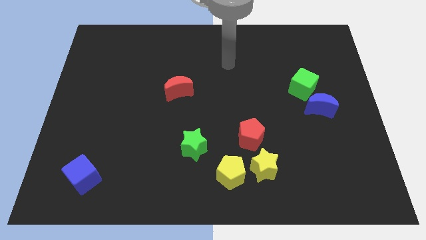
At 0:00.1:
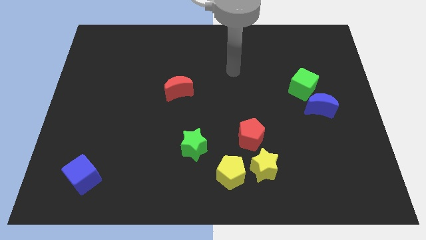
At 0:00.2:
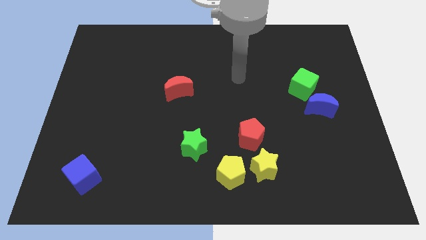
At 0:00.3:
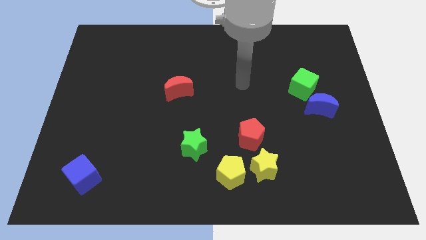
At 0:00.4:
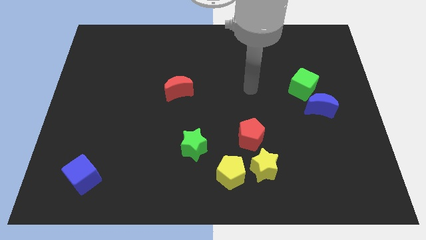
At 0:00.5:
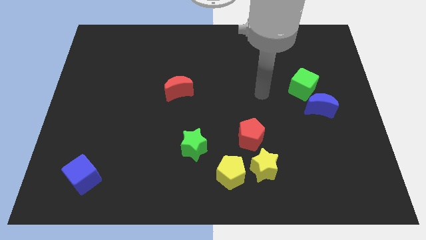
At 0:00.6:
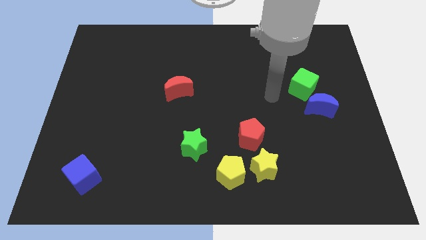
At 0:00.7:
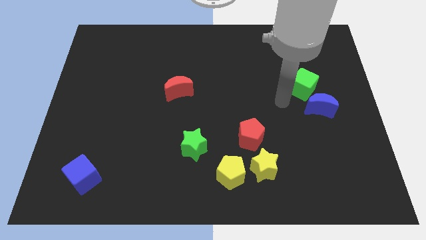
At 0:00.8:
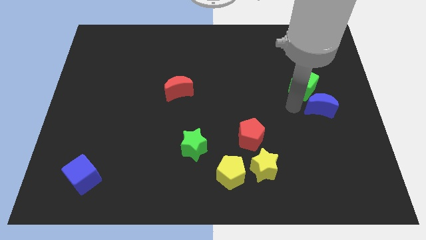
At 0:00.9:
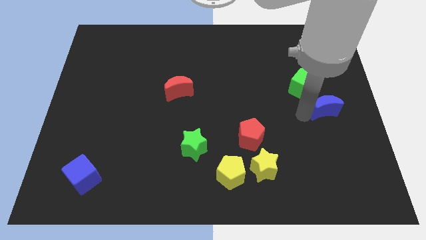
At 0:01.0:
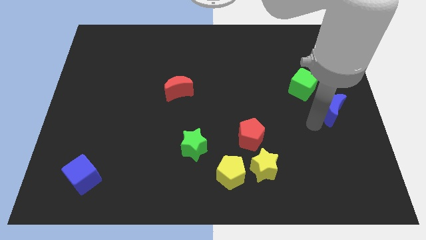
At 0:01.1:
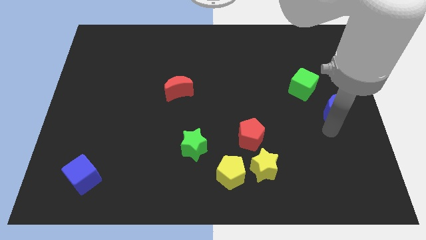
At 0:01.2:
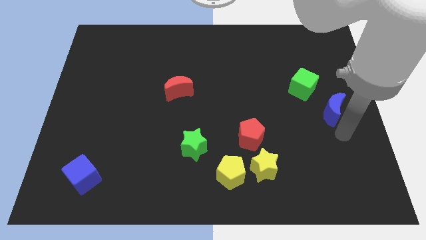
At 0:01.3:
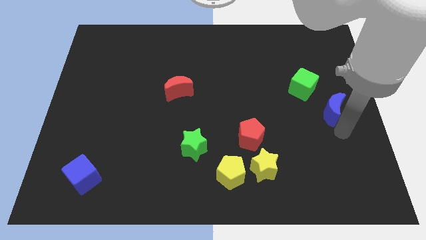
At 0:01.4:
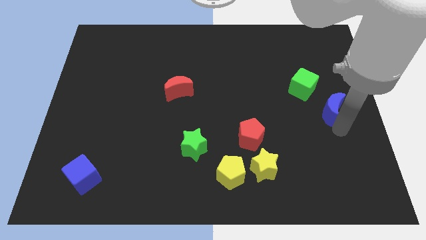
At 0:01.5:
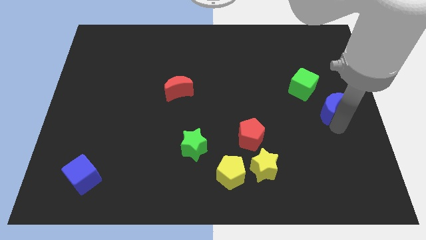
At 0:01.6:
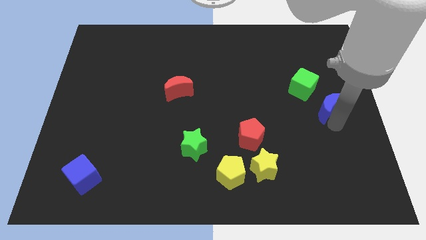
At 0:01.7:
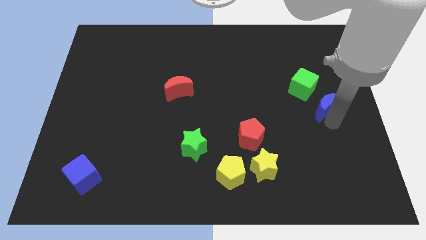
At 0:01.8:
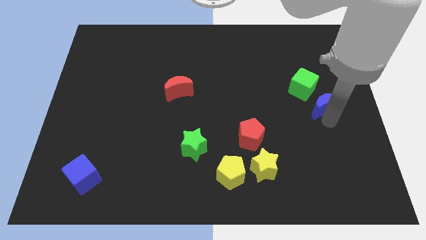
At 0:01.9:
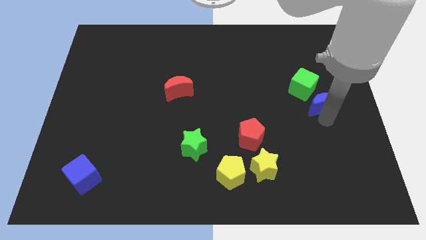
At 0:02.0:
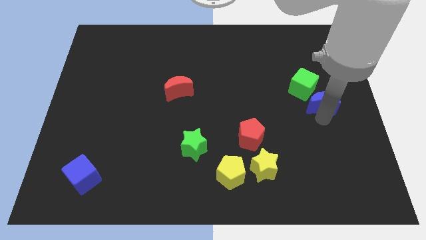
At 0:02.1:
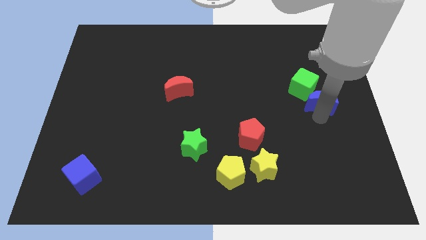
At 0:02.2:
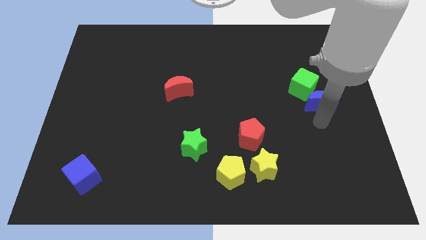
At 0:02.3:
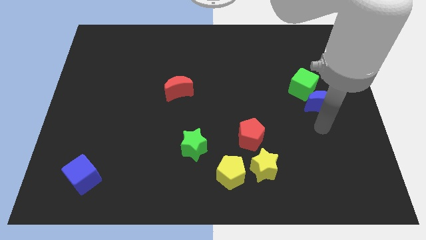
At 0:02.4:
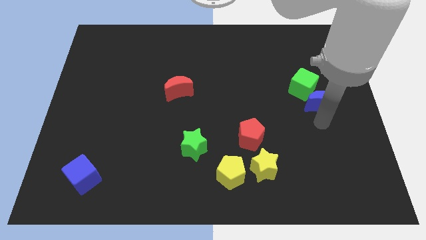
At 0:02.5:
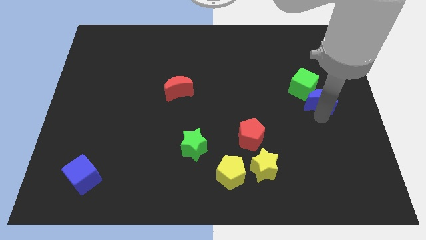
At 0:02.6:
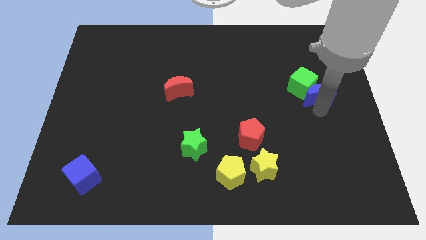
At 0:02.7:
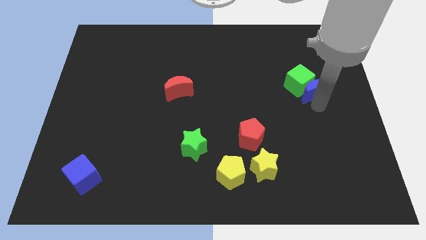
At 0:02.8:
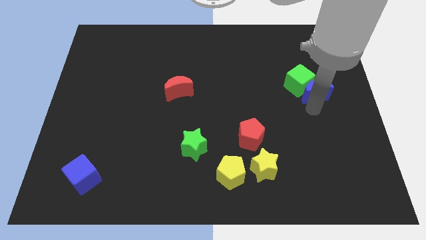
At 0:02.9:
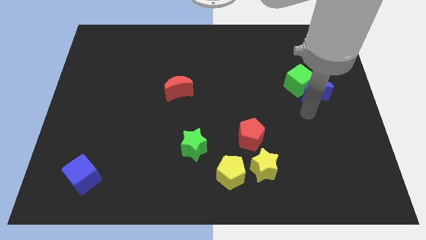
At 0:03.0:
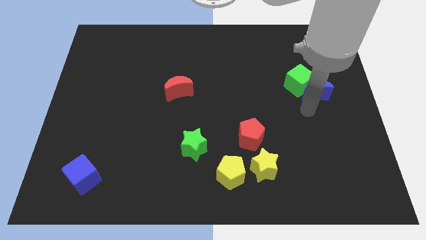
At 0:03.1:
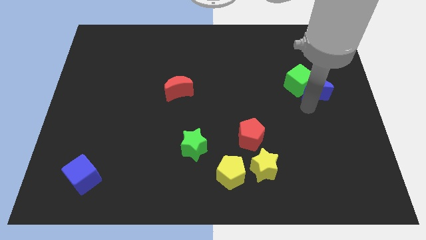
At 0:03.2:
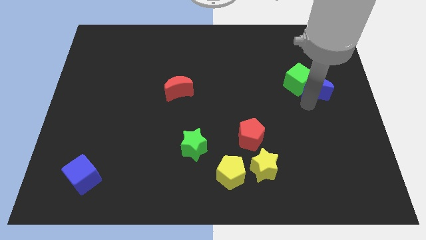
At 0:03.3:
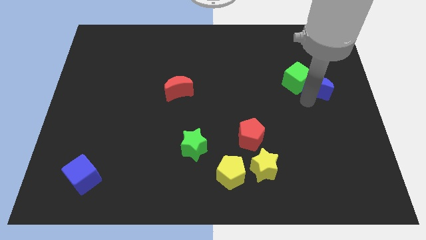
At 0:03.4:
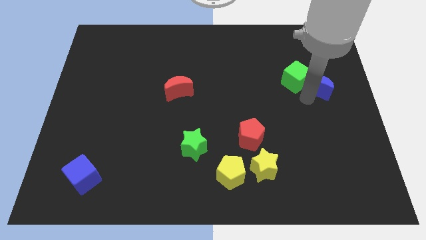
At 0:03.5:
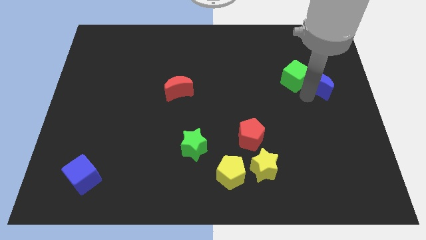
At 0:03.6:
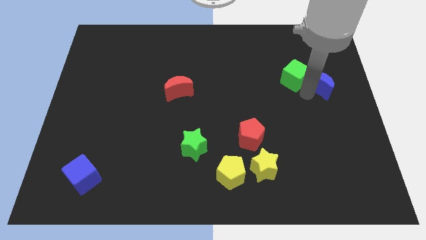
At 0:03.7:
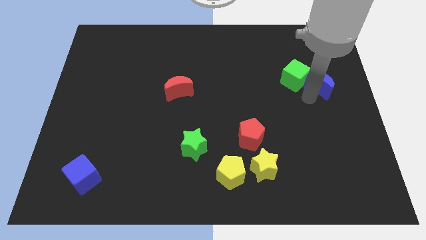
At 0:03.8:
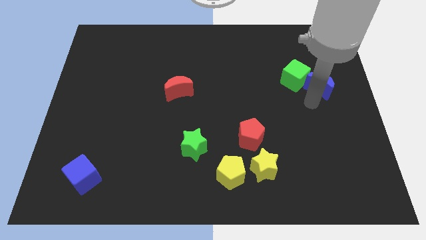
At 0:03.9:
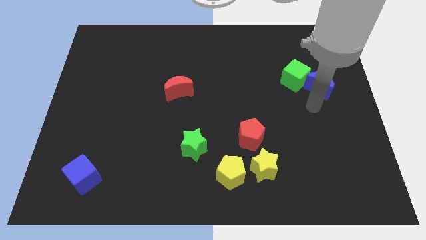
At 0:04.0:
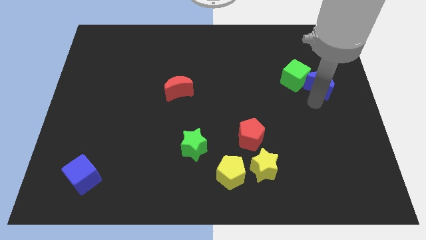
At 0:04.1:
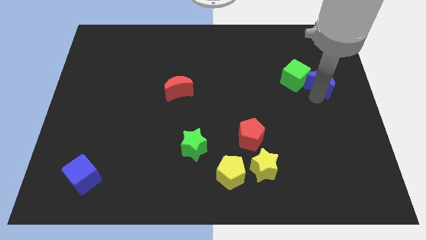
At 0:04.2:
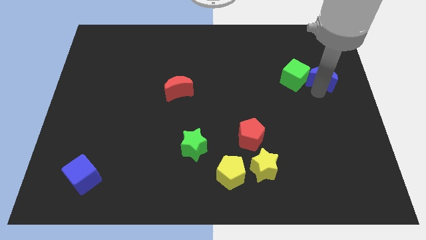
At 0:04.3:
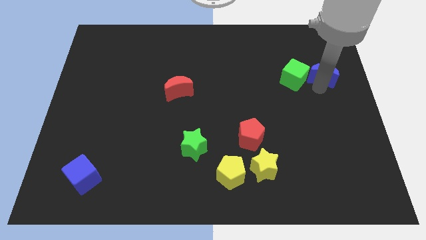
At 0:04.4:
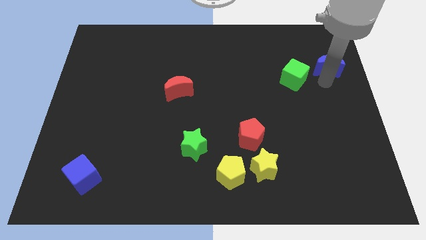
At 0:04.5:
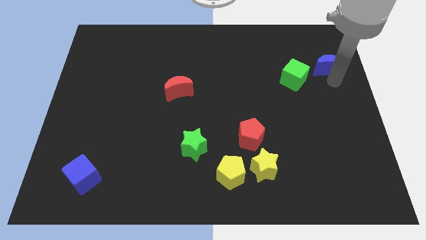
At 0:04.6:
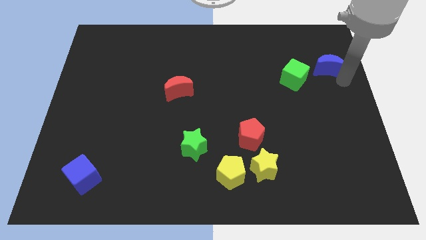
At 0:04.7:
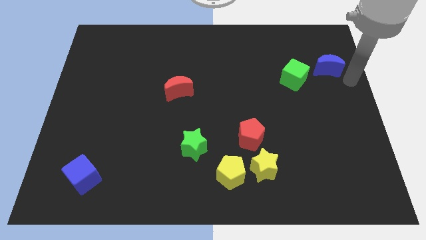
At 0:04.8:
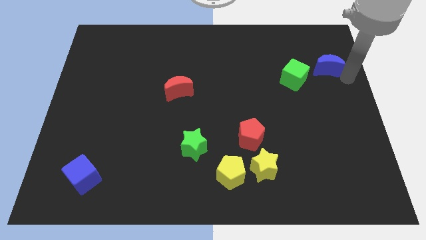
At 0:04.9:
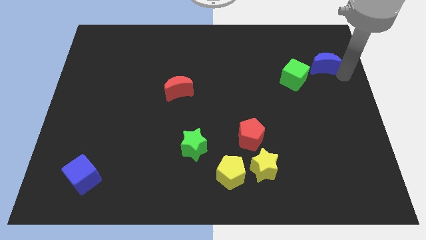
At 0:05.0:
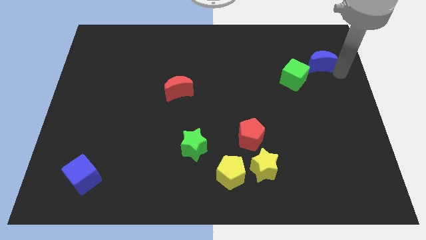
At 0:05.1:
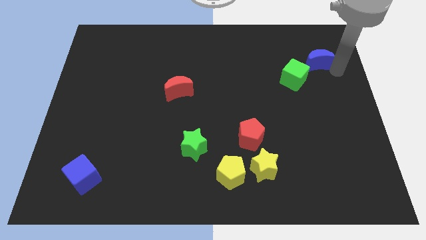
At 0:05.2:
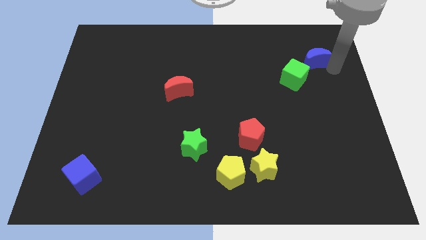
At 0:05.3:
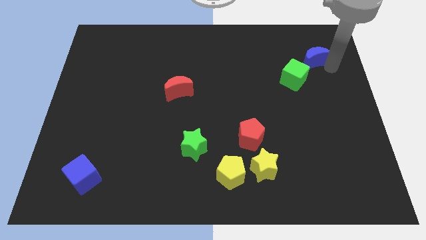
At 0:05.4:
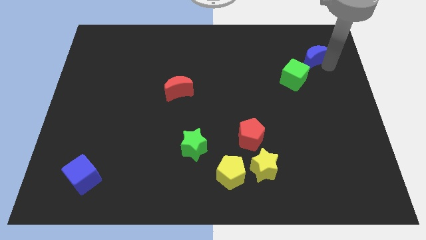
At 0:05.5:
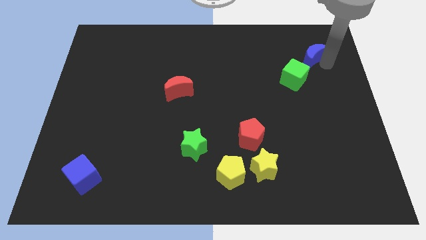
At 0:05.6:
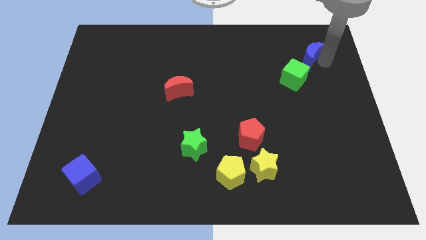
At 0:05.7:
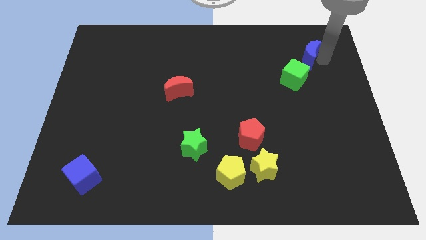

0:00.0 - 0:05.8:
push the blue moon to the top side of the green cube

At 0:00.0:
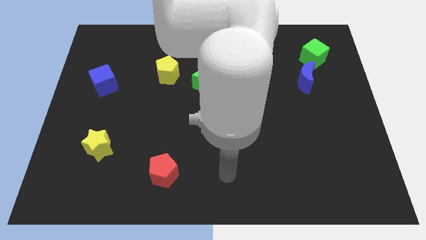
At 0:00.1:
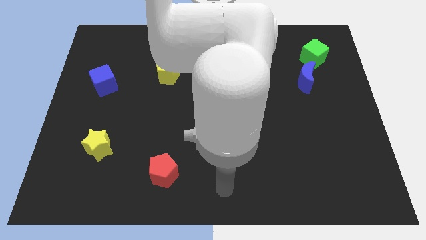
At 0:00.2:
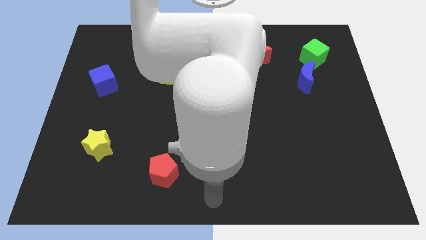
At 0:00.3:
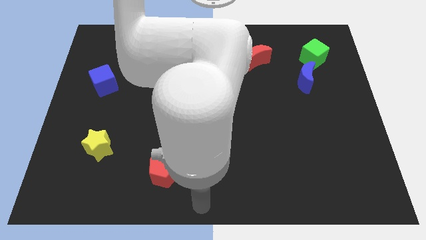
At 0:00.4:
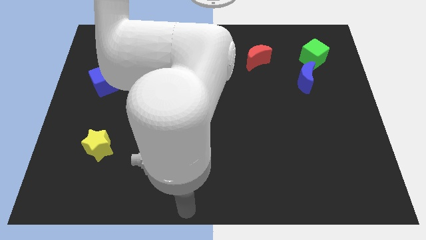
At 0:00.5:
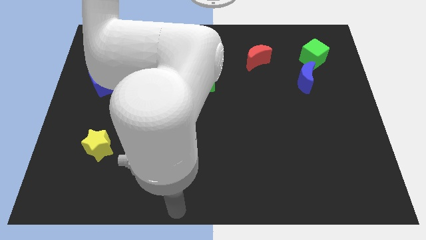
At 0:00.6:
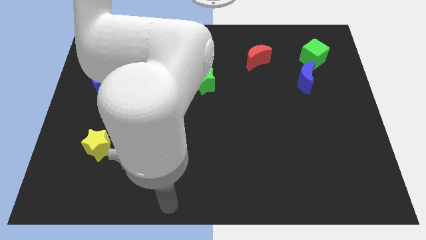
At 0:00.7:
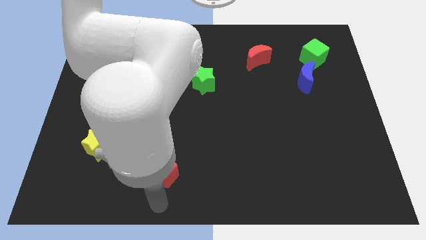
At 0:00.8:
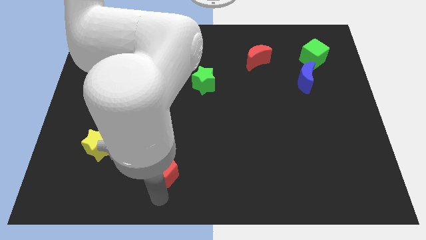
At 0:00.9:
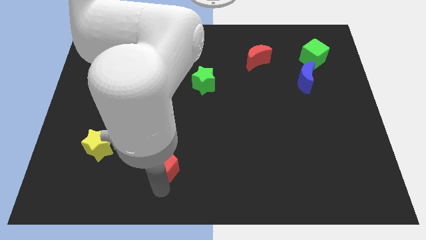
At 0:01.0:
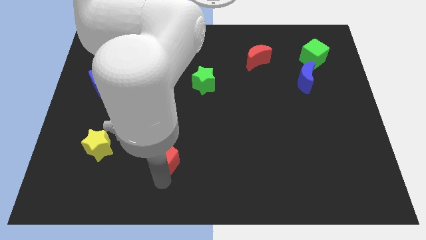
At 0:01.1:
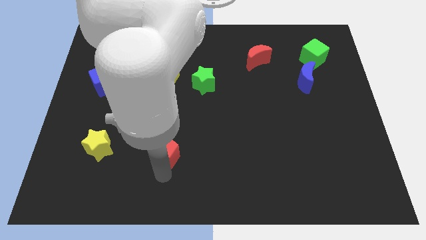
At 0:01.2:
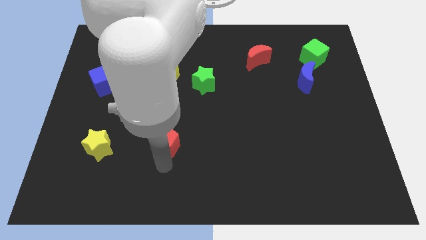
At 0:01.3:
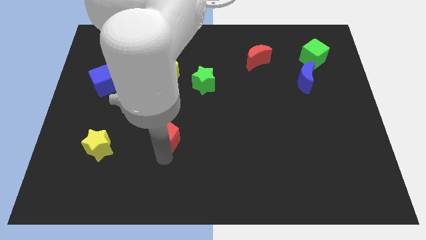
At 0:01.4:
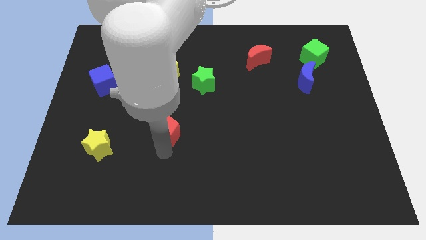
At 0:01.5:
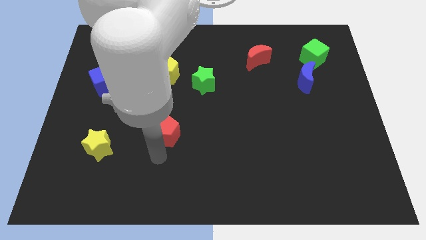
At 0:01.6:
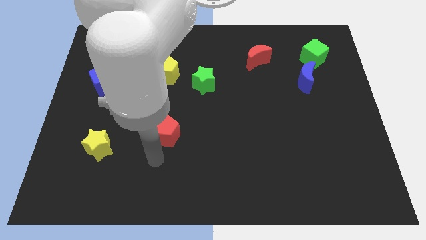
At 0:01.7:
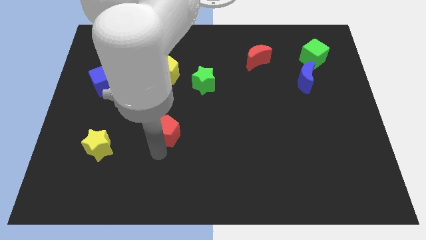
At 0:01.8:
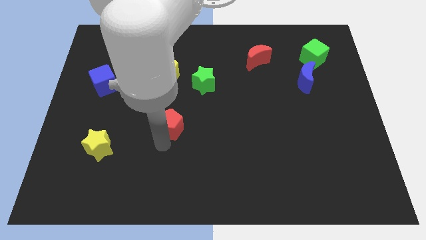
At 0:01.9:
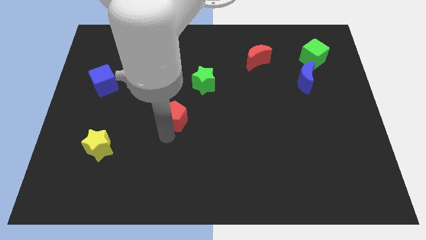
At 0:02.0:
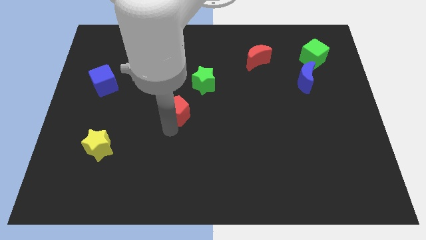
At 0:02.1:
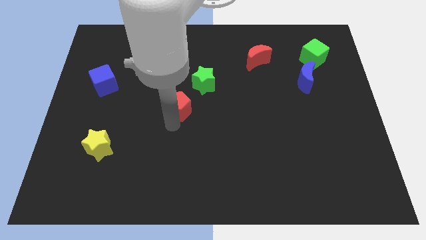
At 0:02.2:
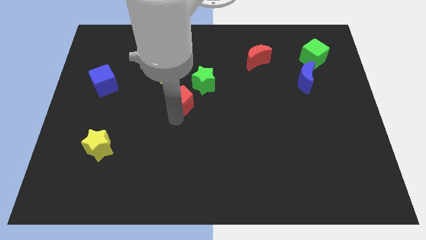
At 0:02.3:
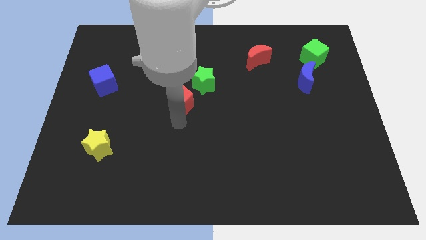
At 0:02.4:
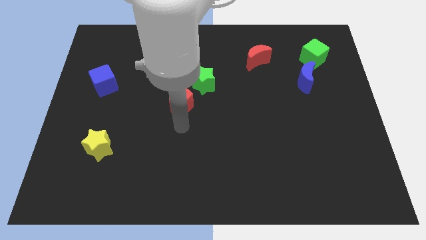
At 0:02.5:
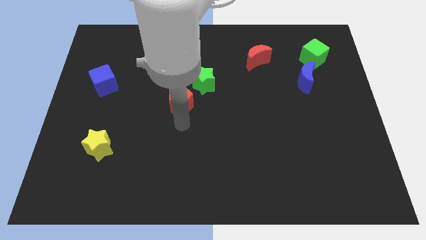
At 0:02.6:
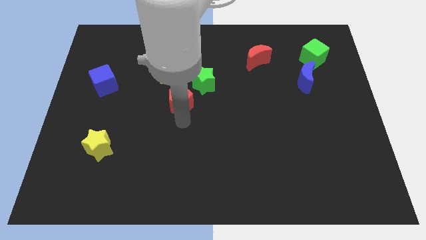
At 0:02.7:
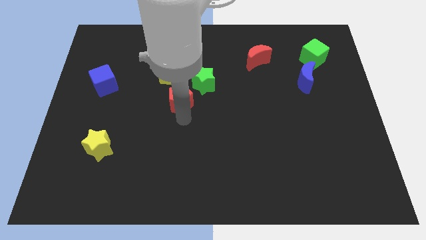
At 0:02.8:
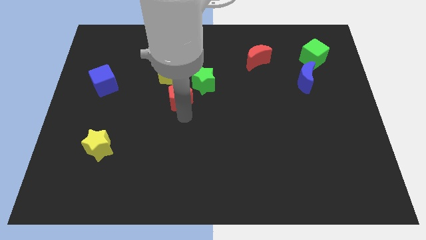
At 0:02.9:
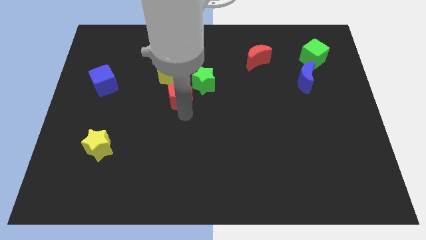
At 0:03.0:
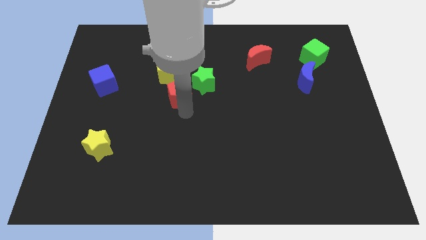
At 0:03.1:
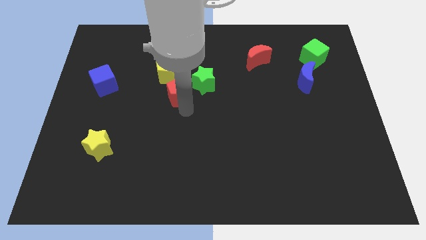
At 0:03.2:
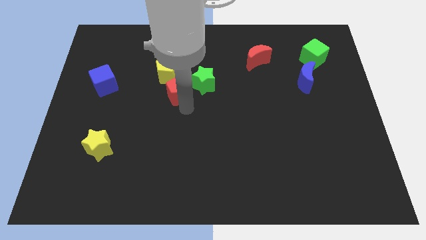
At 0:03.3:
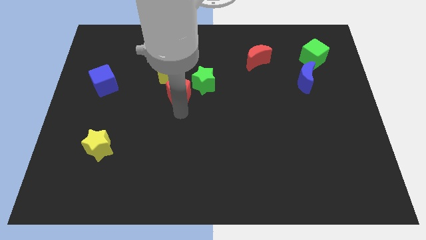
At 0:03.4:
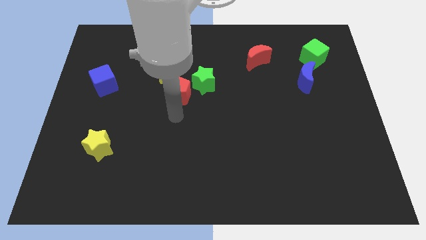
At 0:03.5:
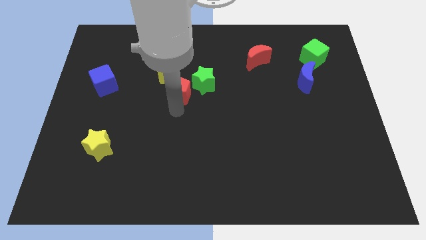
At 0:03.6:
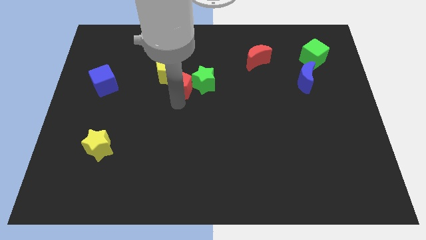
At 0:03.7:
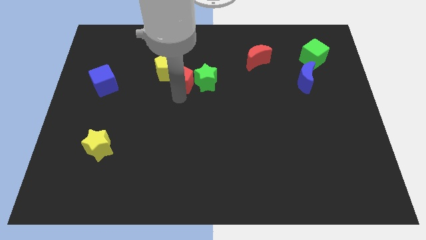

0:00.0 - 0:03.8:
slide the red pentagon diagonally up and to the left of the green star
